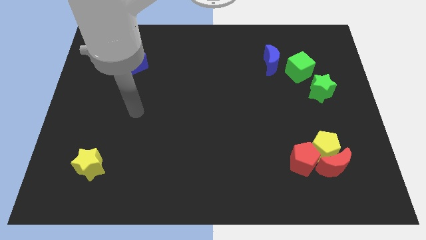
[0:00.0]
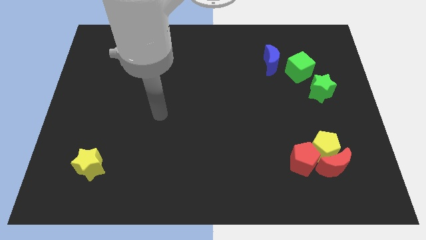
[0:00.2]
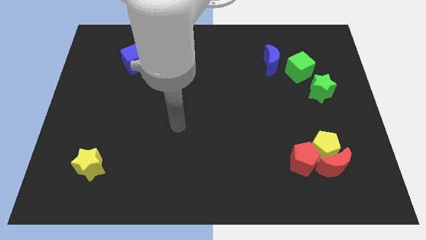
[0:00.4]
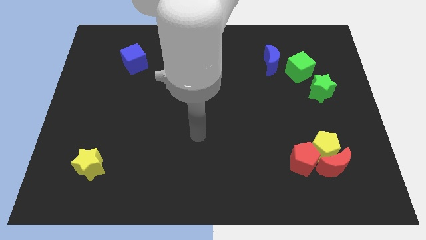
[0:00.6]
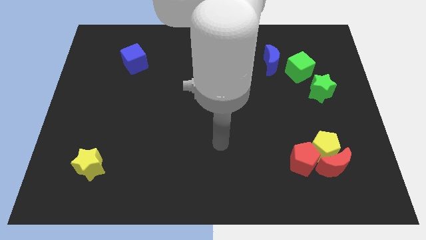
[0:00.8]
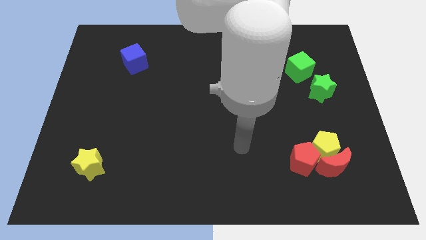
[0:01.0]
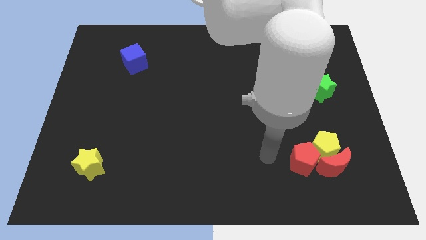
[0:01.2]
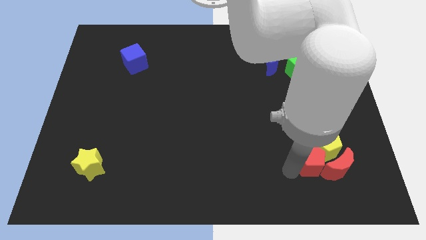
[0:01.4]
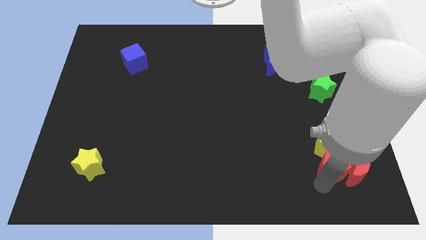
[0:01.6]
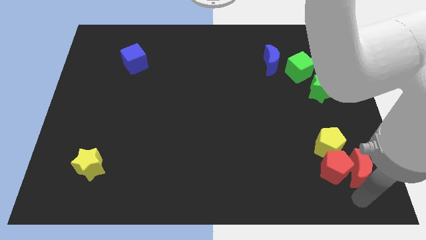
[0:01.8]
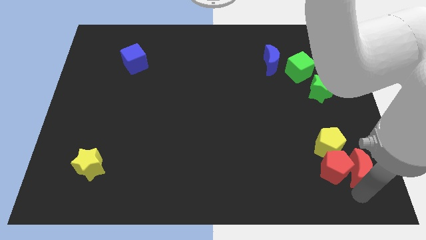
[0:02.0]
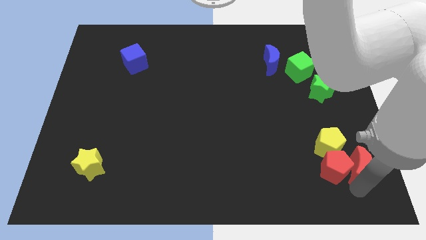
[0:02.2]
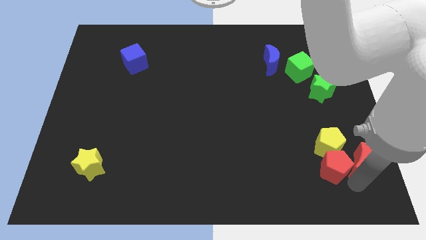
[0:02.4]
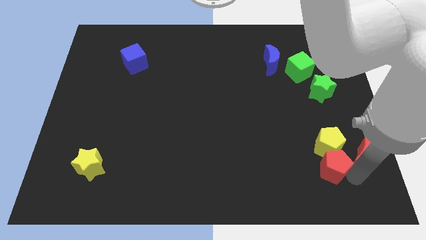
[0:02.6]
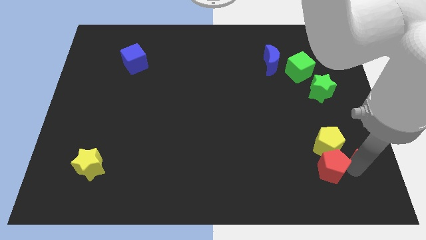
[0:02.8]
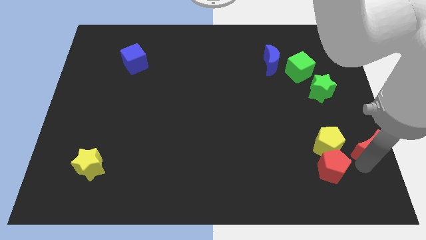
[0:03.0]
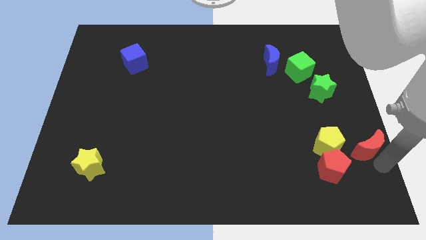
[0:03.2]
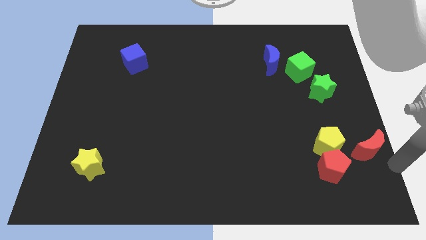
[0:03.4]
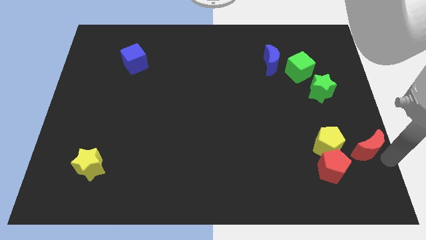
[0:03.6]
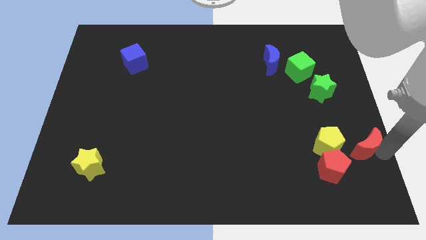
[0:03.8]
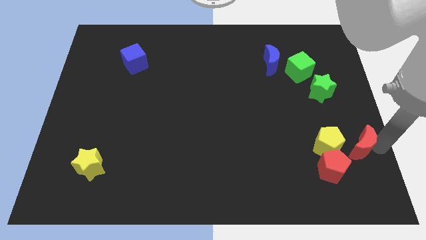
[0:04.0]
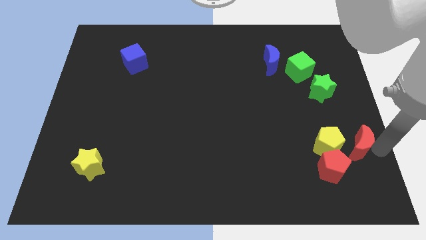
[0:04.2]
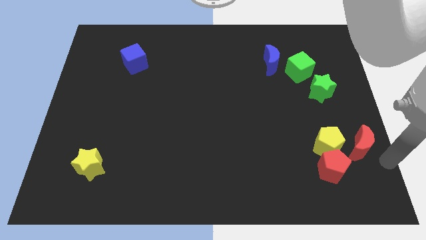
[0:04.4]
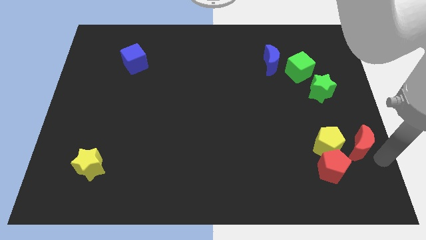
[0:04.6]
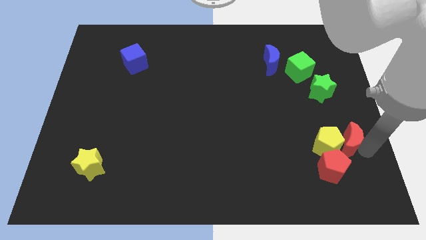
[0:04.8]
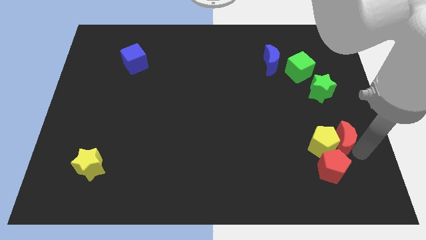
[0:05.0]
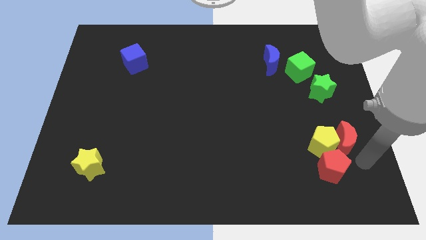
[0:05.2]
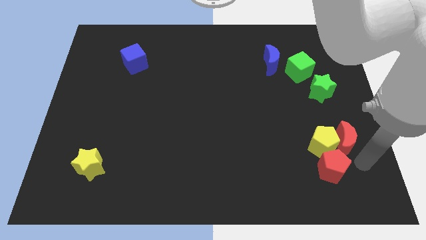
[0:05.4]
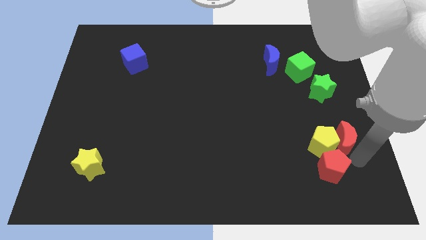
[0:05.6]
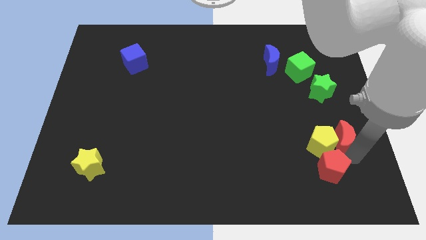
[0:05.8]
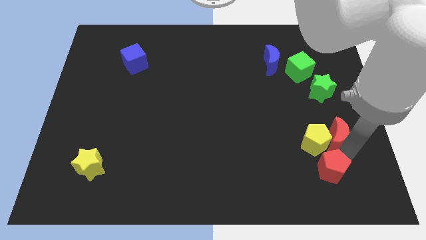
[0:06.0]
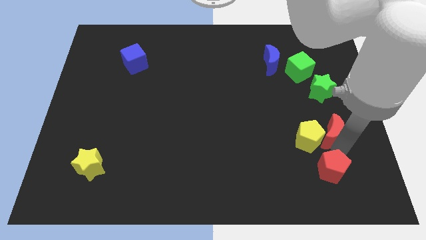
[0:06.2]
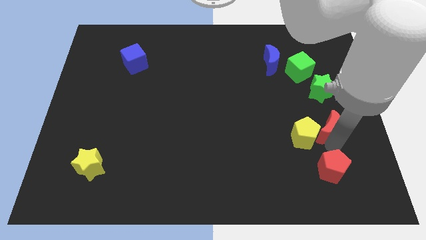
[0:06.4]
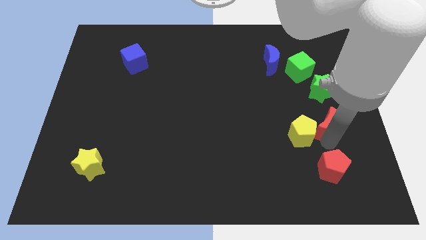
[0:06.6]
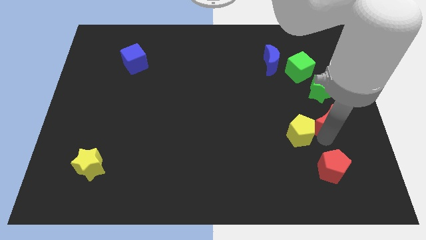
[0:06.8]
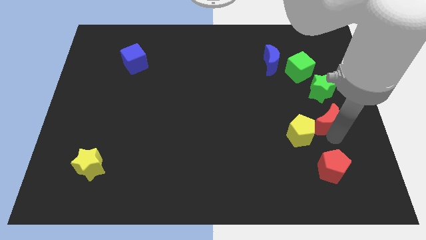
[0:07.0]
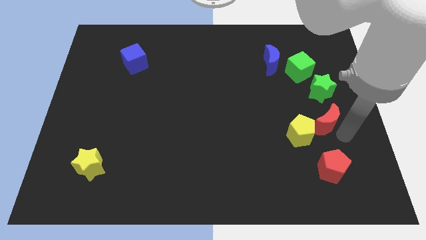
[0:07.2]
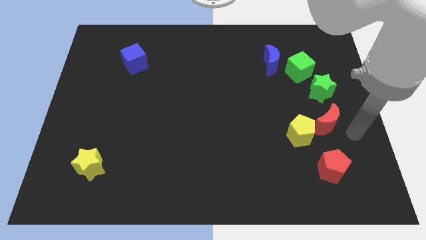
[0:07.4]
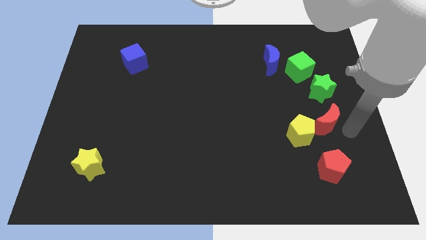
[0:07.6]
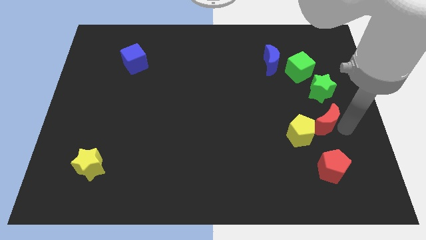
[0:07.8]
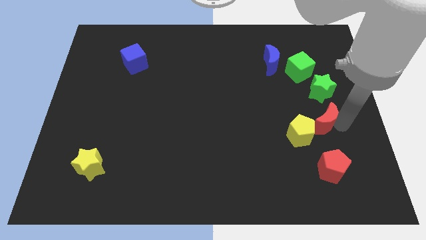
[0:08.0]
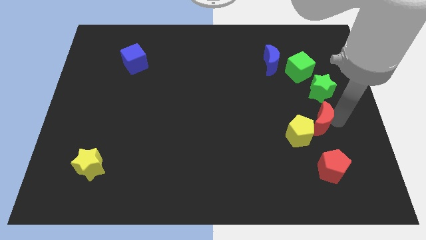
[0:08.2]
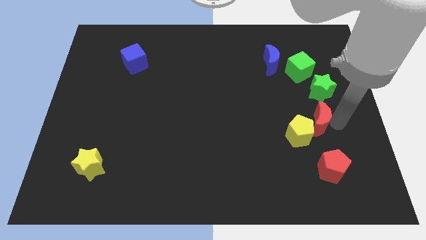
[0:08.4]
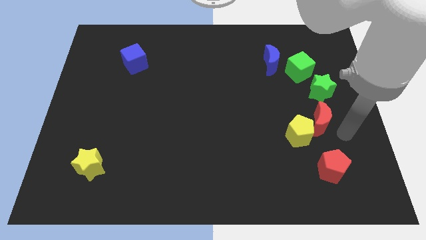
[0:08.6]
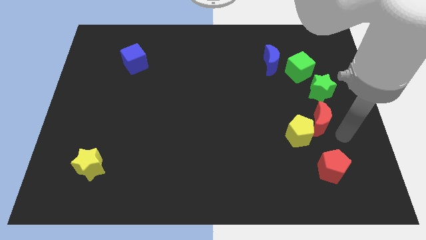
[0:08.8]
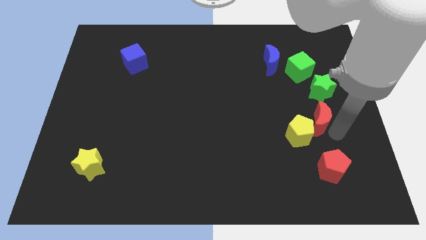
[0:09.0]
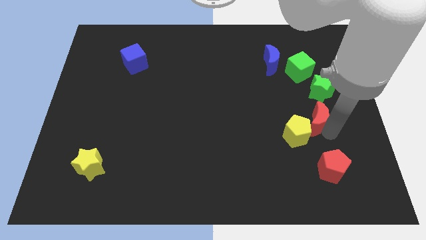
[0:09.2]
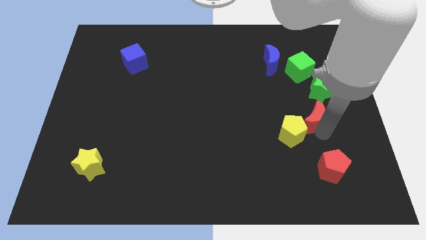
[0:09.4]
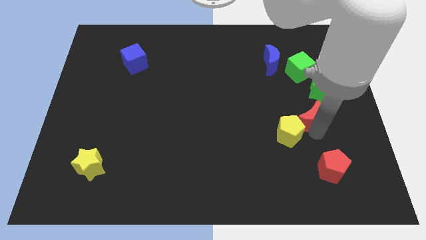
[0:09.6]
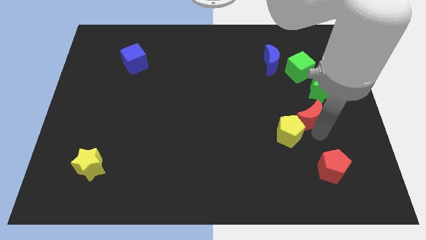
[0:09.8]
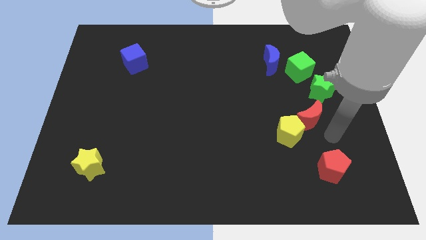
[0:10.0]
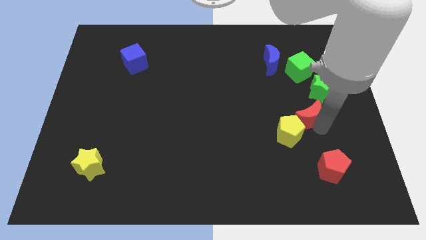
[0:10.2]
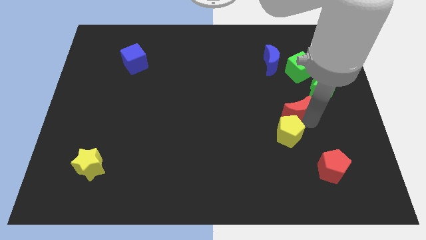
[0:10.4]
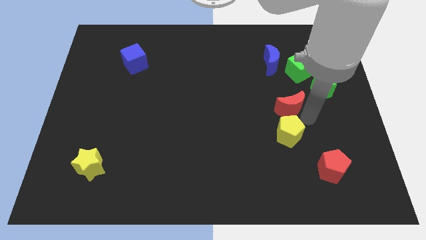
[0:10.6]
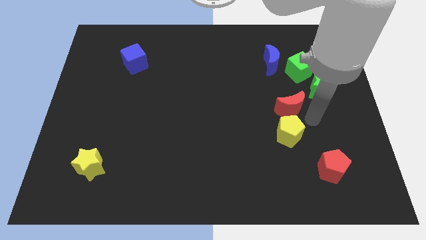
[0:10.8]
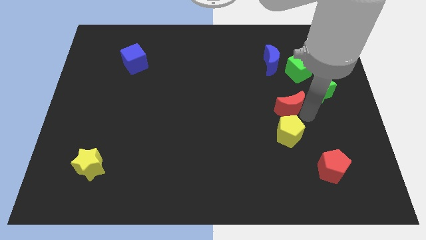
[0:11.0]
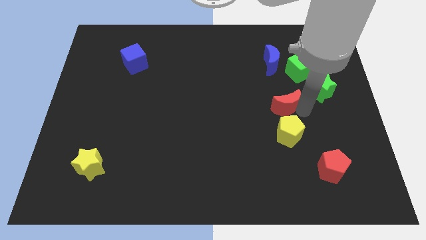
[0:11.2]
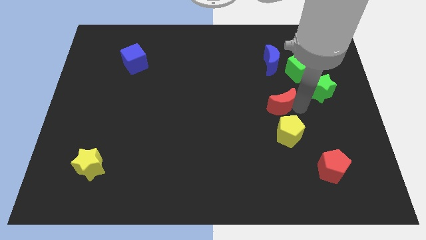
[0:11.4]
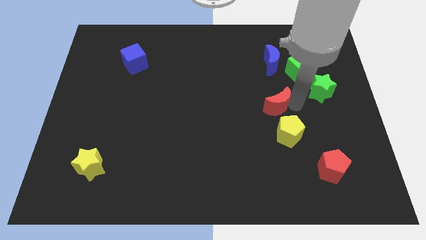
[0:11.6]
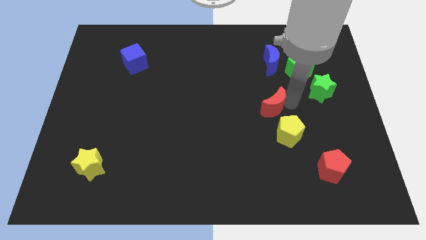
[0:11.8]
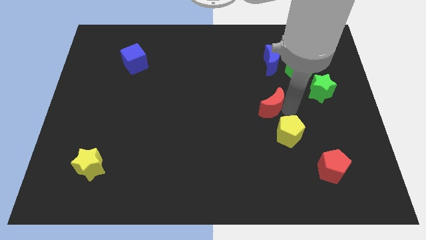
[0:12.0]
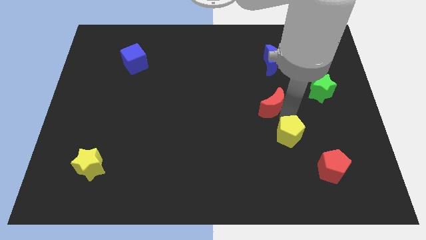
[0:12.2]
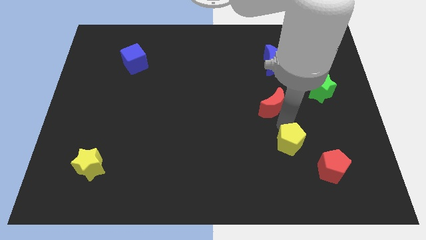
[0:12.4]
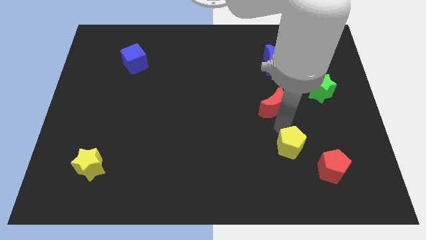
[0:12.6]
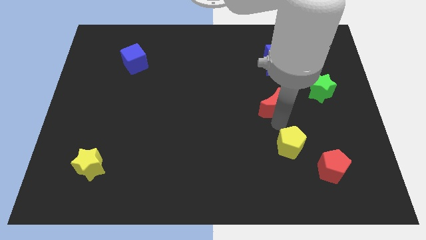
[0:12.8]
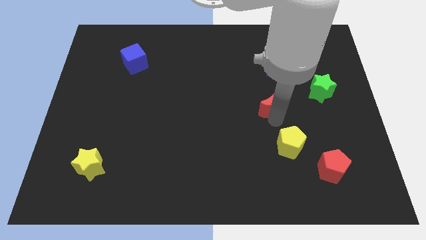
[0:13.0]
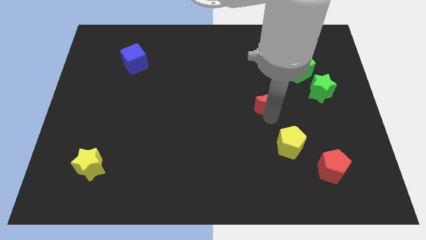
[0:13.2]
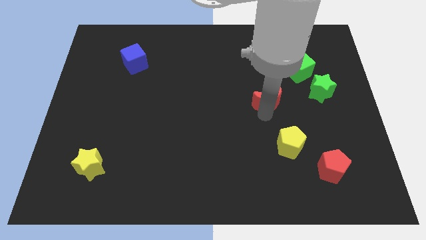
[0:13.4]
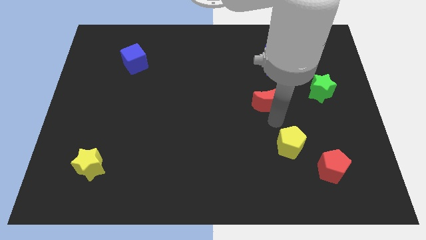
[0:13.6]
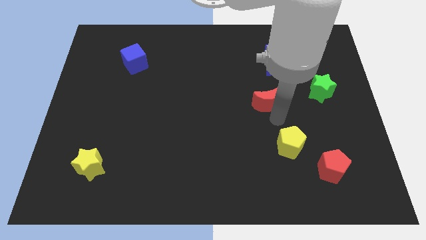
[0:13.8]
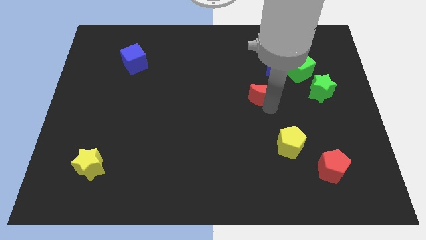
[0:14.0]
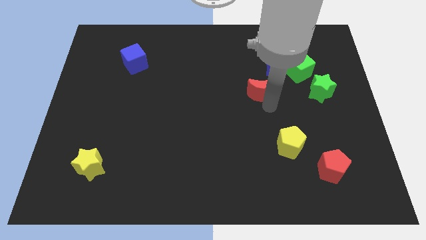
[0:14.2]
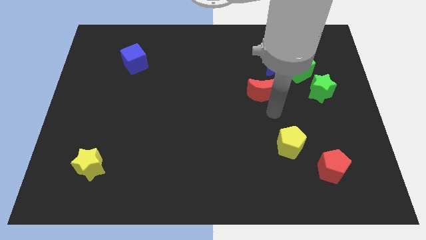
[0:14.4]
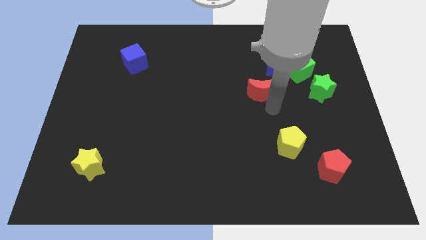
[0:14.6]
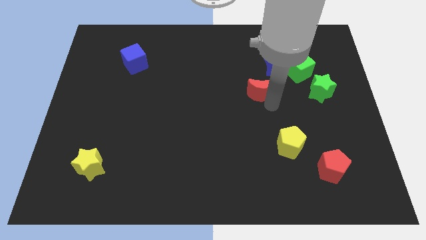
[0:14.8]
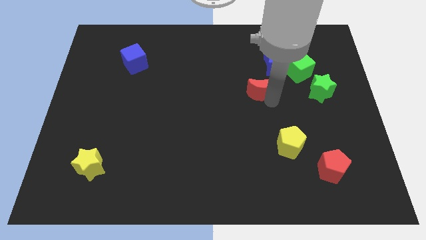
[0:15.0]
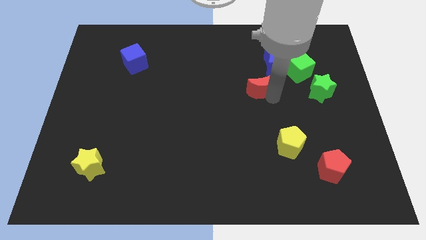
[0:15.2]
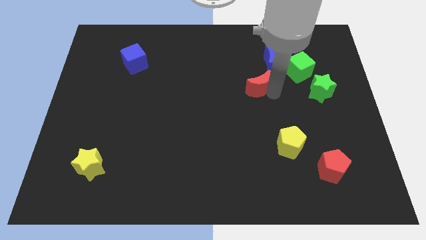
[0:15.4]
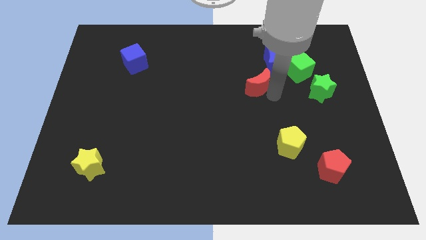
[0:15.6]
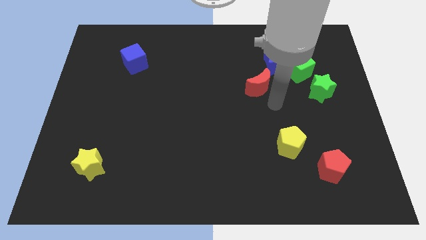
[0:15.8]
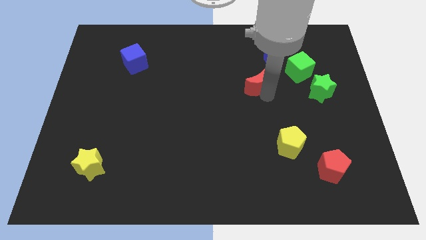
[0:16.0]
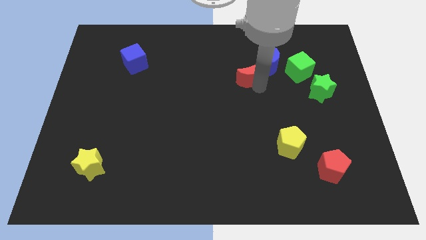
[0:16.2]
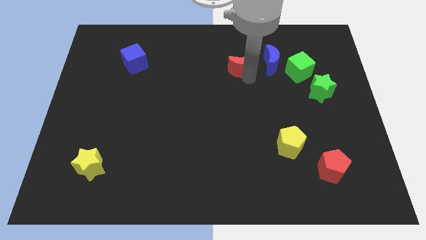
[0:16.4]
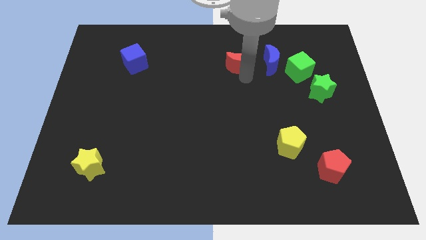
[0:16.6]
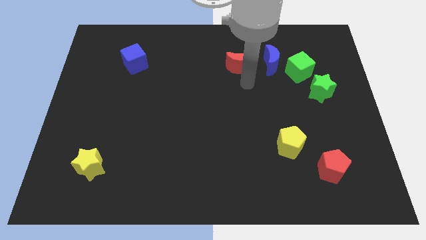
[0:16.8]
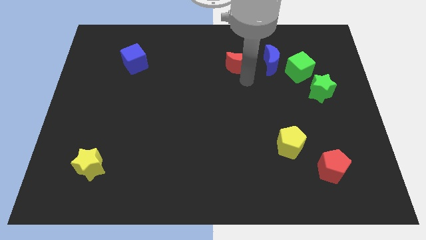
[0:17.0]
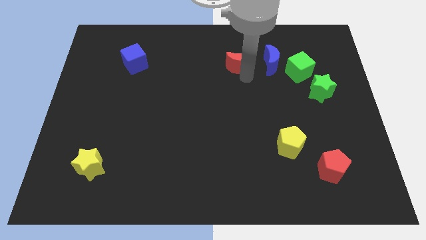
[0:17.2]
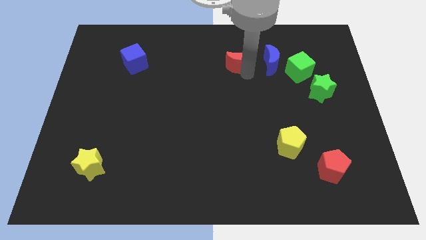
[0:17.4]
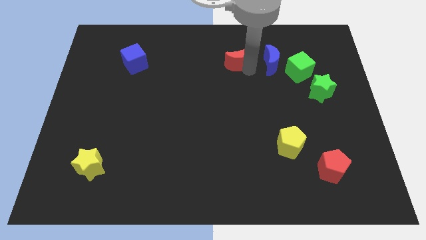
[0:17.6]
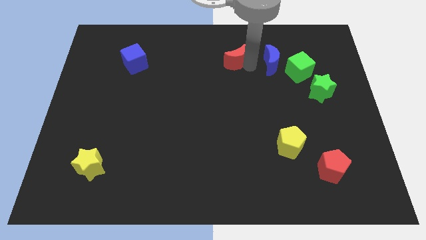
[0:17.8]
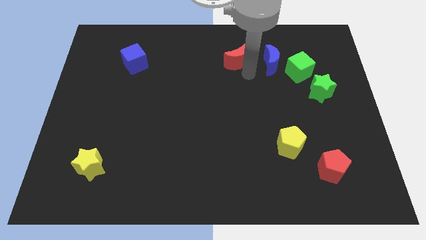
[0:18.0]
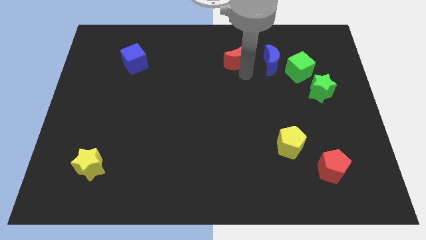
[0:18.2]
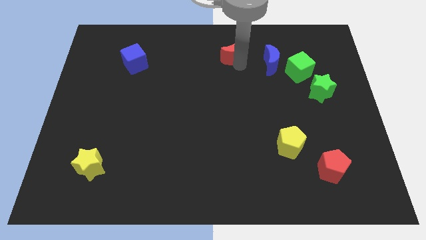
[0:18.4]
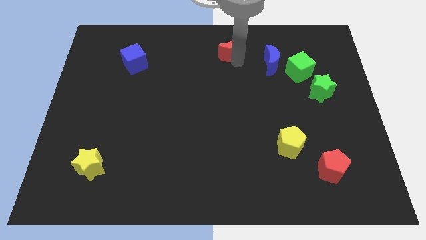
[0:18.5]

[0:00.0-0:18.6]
put the red moon to the towards your base
